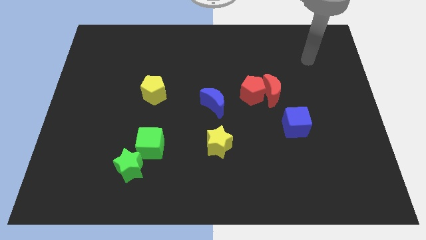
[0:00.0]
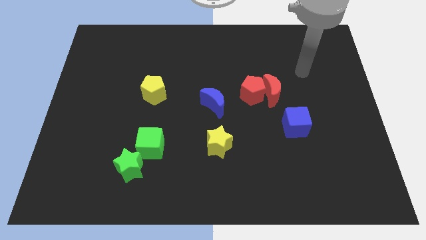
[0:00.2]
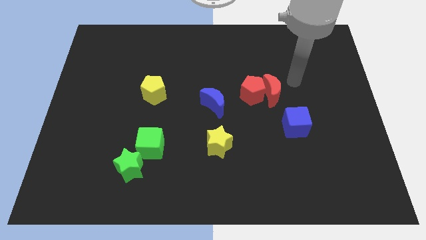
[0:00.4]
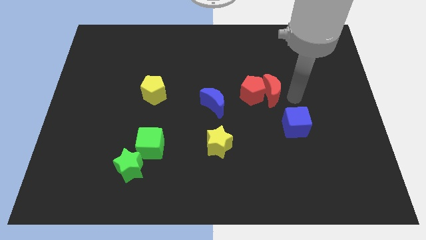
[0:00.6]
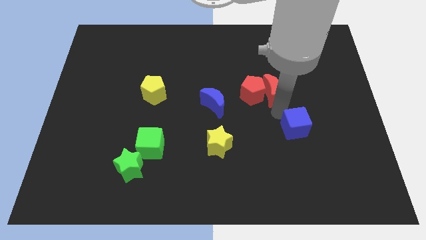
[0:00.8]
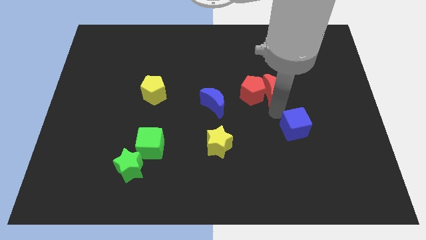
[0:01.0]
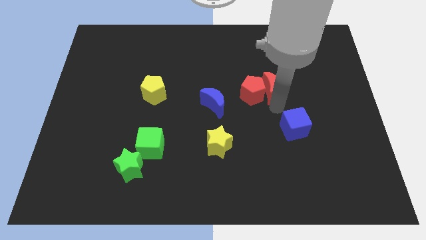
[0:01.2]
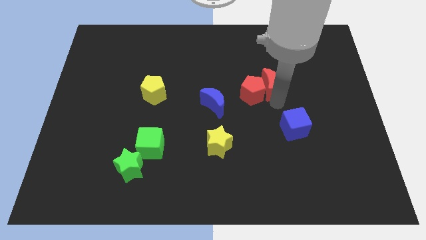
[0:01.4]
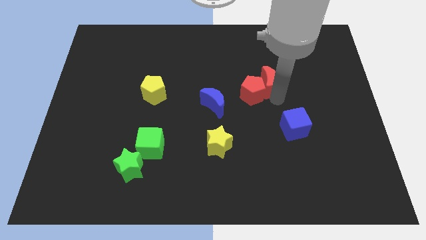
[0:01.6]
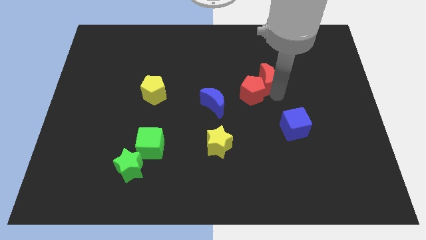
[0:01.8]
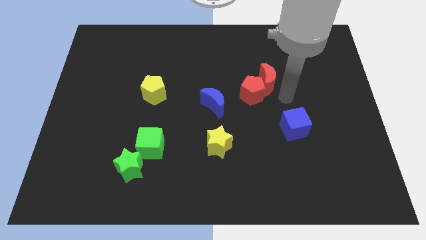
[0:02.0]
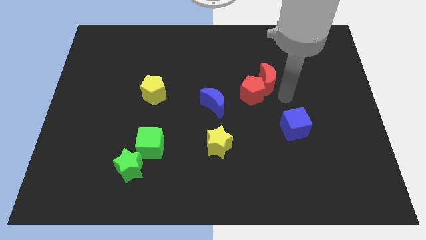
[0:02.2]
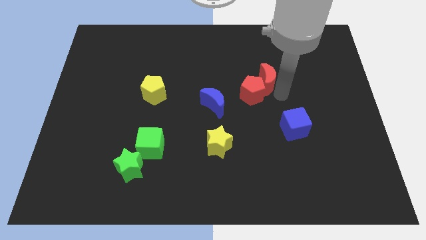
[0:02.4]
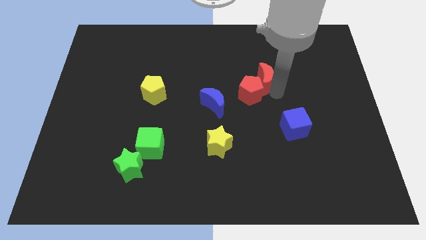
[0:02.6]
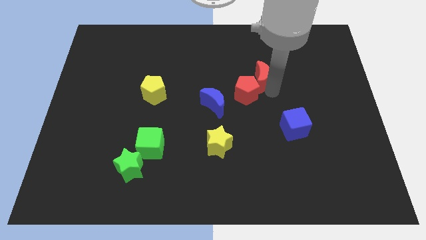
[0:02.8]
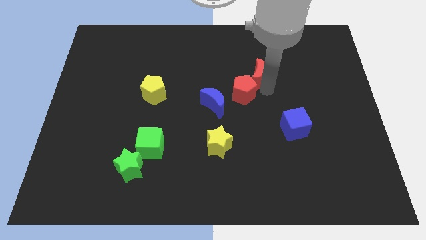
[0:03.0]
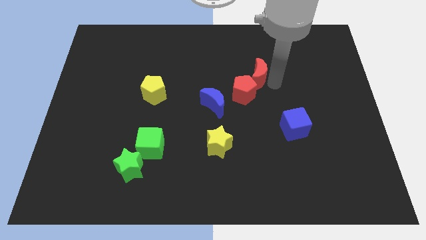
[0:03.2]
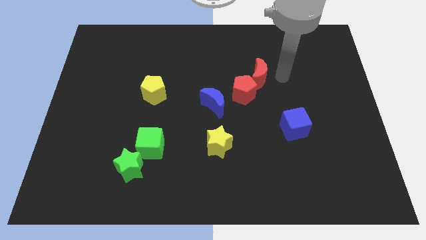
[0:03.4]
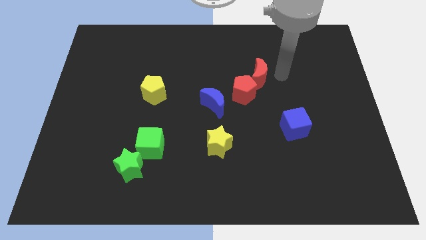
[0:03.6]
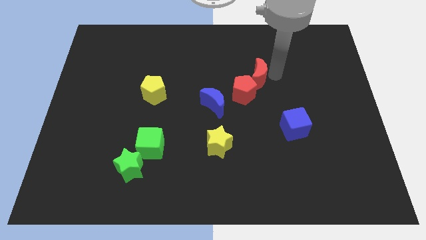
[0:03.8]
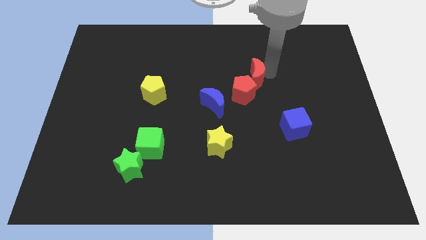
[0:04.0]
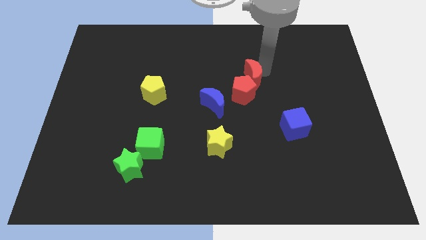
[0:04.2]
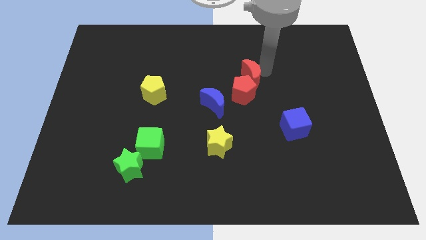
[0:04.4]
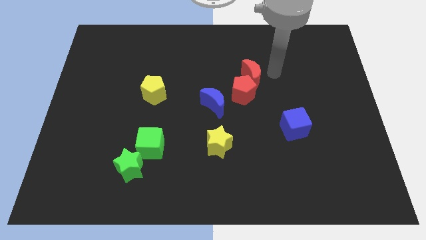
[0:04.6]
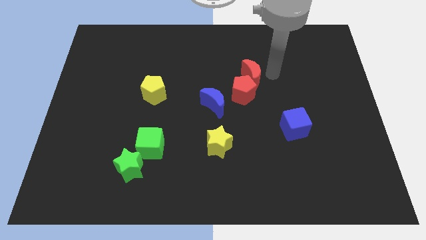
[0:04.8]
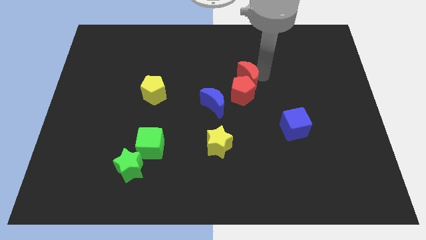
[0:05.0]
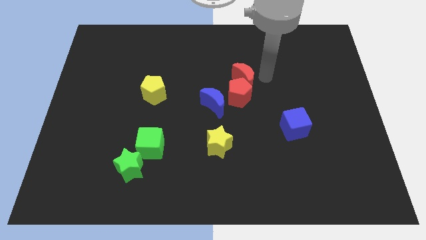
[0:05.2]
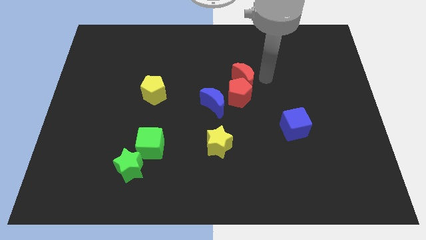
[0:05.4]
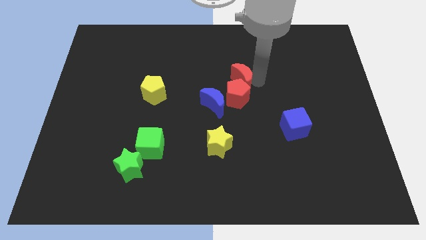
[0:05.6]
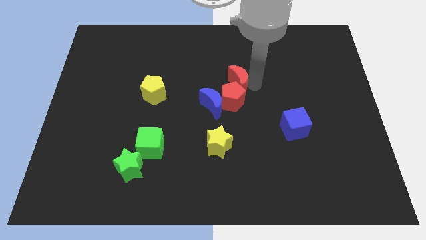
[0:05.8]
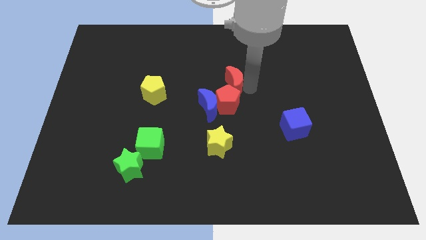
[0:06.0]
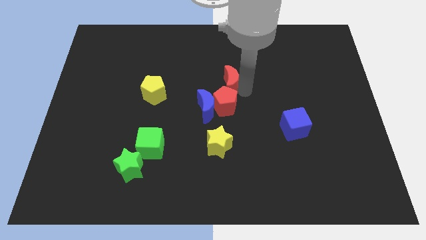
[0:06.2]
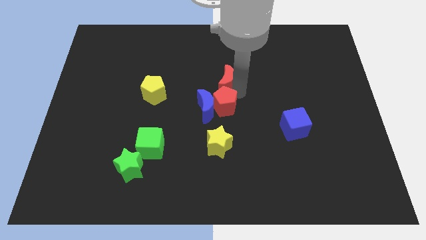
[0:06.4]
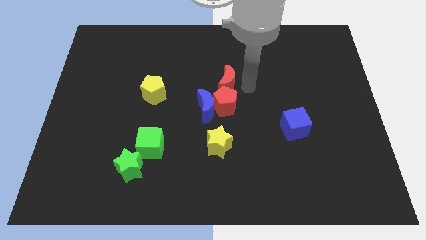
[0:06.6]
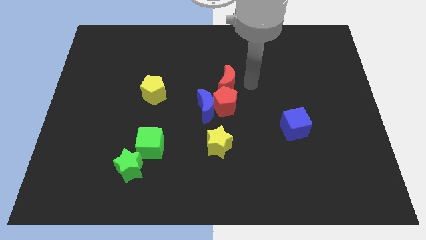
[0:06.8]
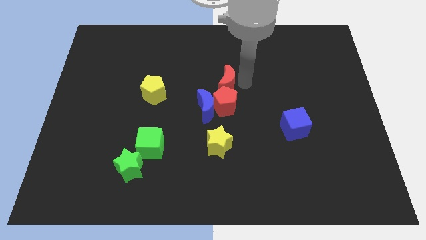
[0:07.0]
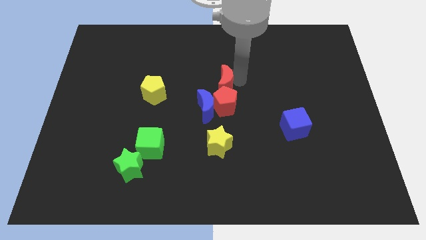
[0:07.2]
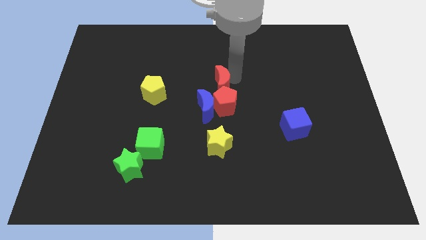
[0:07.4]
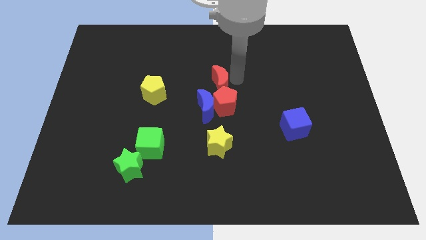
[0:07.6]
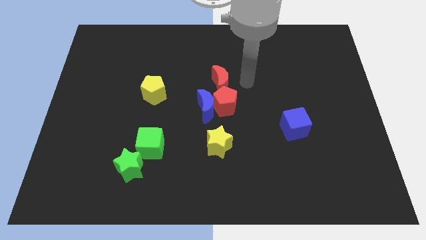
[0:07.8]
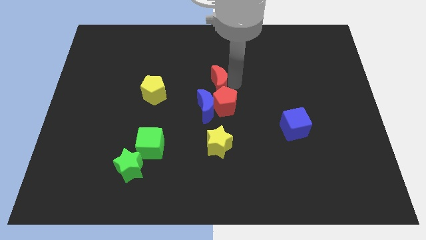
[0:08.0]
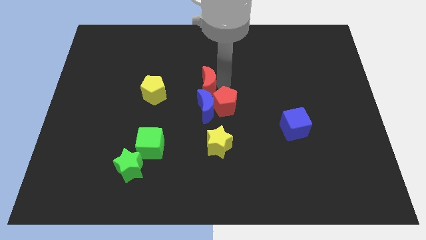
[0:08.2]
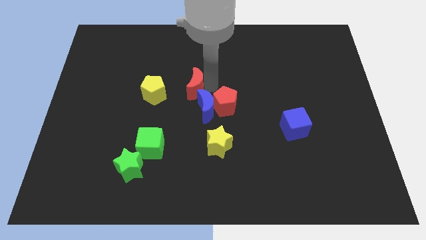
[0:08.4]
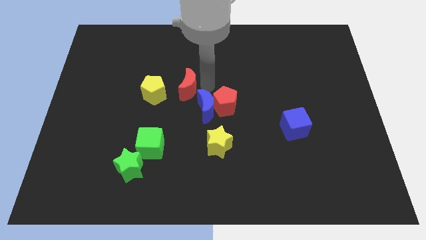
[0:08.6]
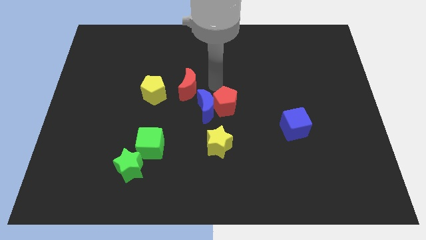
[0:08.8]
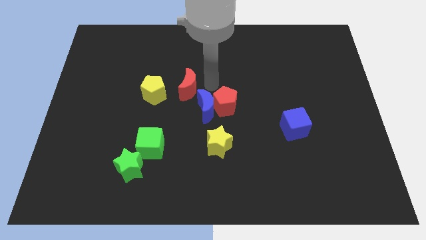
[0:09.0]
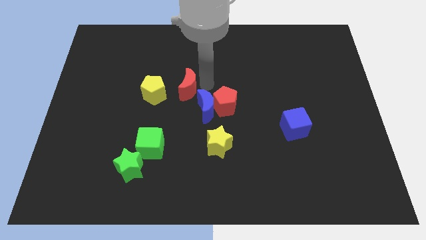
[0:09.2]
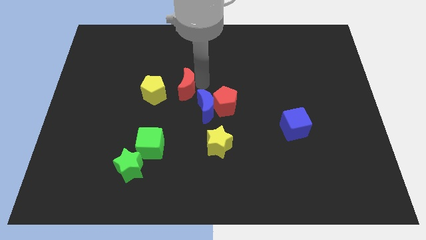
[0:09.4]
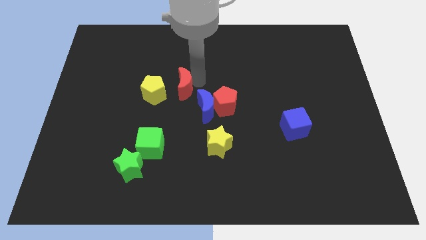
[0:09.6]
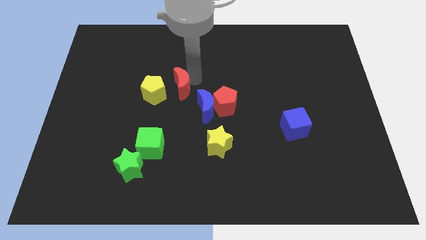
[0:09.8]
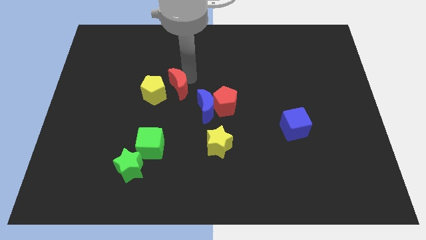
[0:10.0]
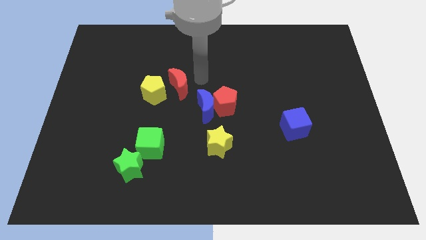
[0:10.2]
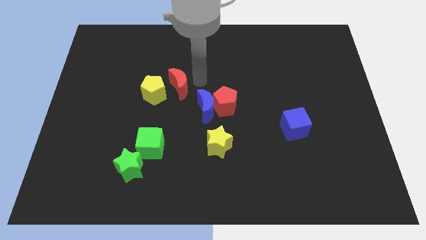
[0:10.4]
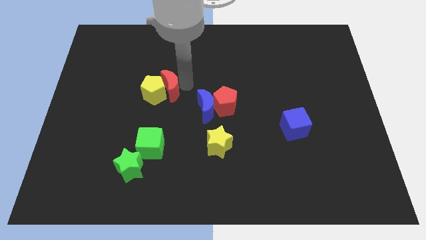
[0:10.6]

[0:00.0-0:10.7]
slide the red moon close to the yellow pentagon

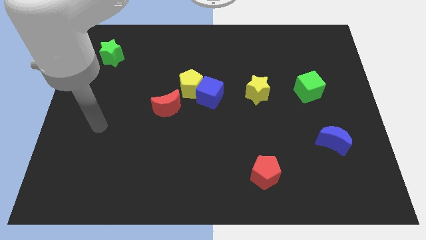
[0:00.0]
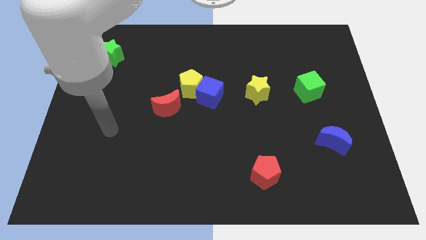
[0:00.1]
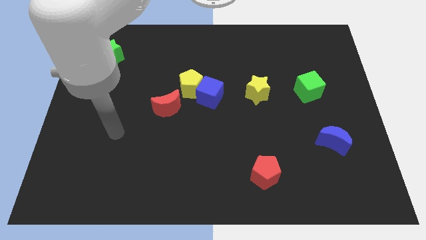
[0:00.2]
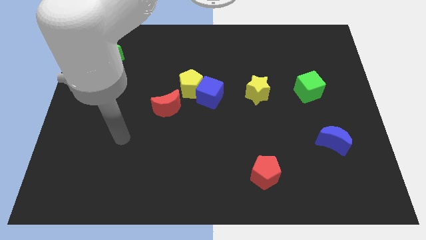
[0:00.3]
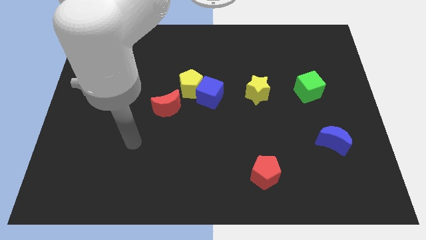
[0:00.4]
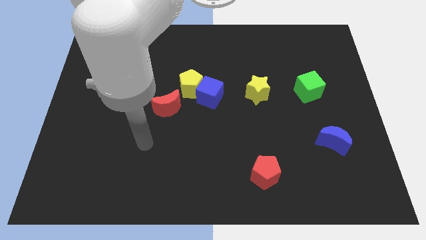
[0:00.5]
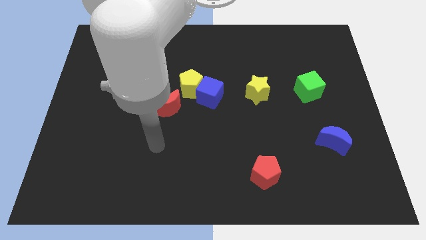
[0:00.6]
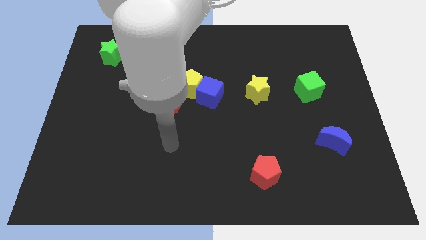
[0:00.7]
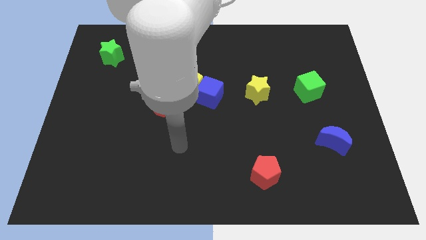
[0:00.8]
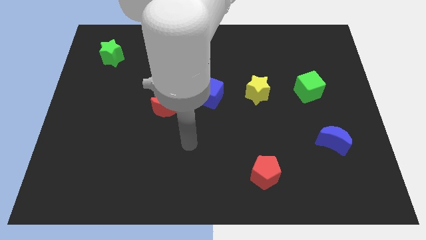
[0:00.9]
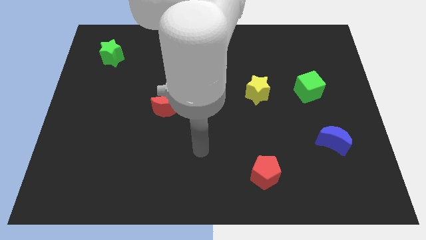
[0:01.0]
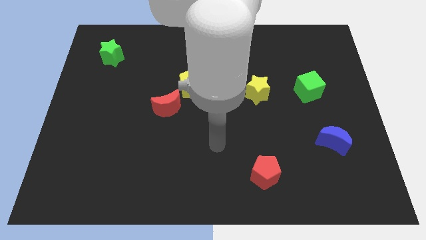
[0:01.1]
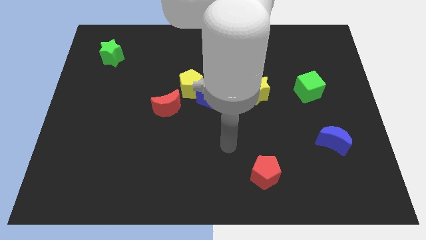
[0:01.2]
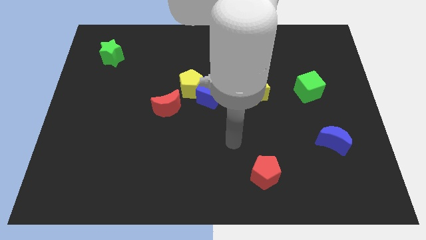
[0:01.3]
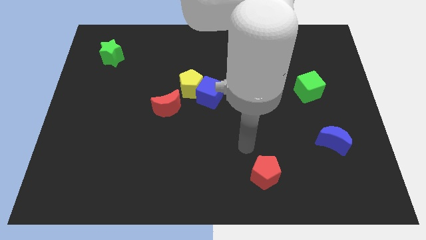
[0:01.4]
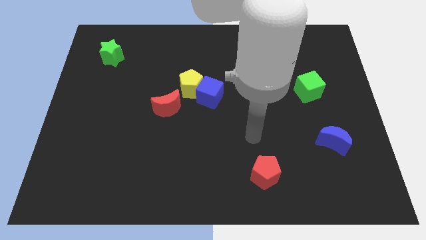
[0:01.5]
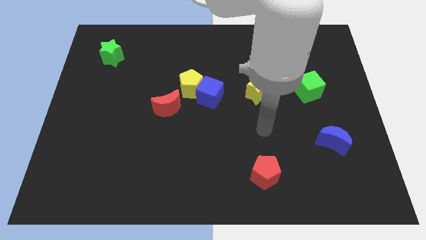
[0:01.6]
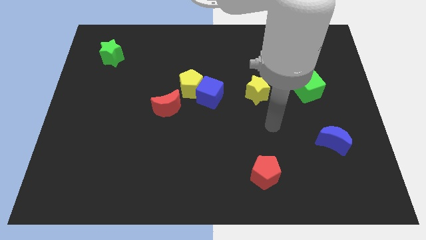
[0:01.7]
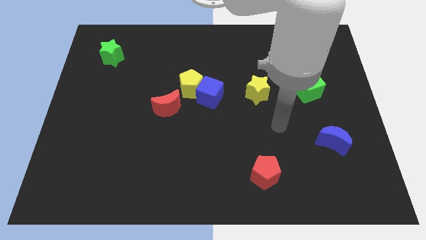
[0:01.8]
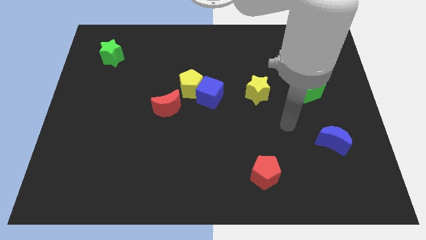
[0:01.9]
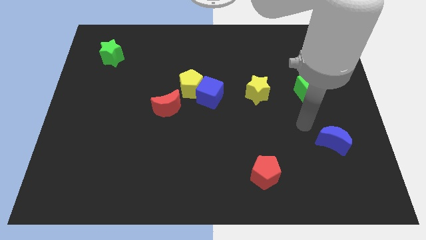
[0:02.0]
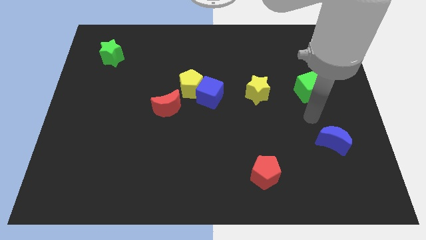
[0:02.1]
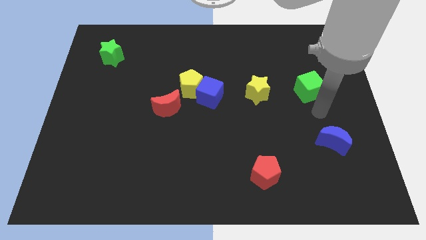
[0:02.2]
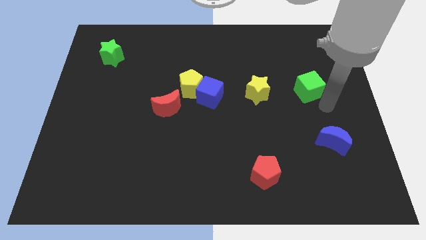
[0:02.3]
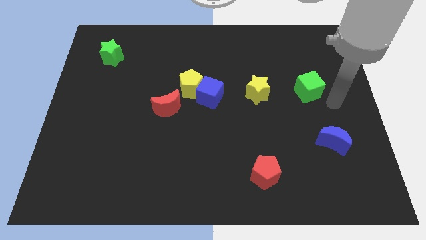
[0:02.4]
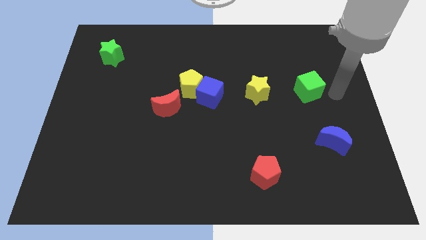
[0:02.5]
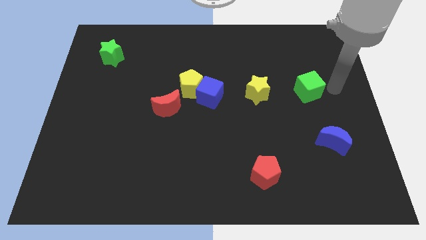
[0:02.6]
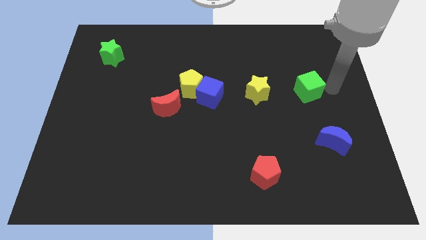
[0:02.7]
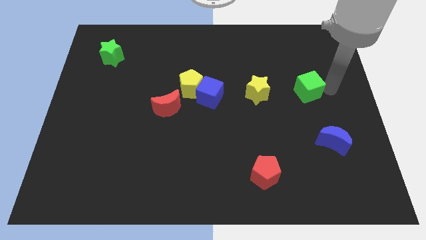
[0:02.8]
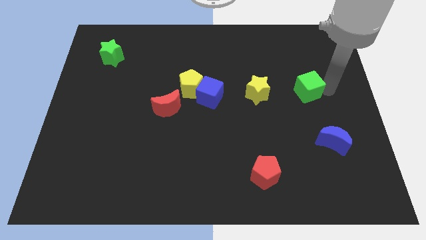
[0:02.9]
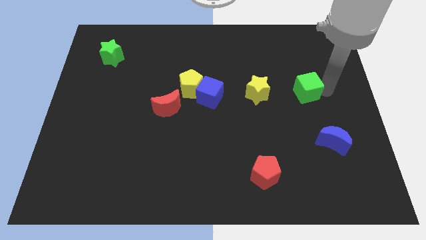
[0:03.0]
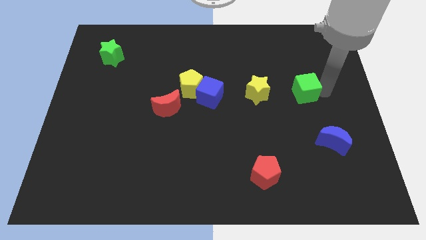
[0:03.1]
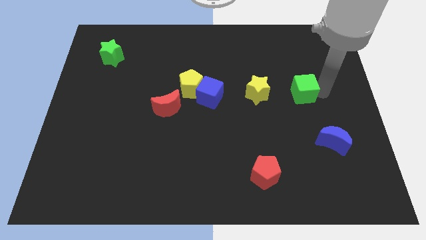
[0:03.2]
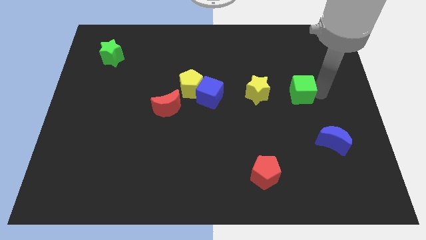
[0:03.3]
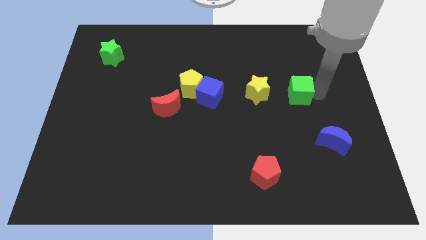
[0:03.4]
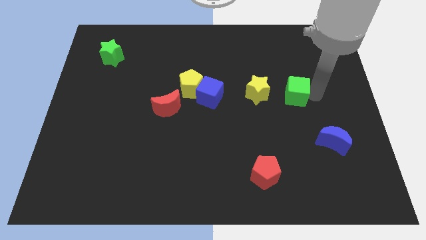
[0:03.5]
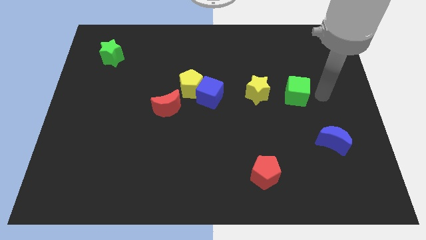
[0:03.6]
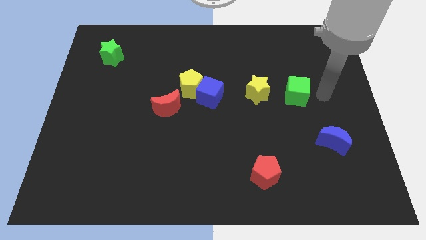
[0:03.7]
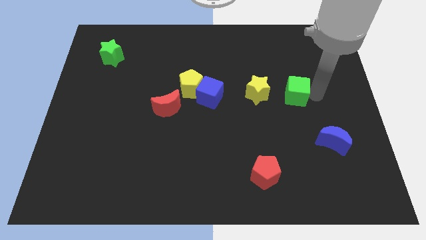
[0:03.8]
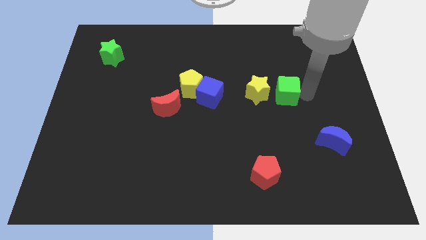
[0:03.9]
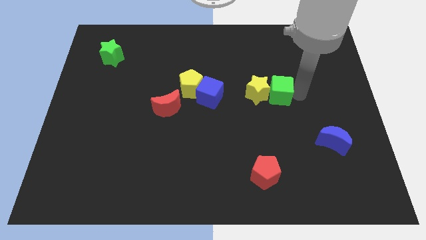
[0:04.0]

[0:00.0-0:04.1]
put the green cube next to the yellow star
